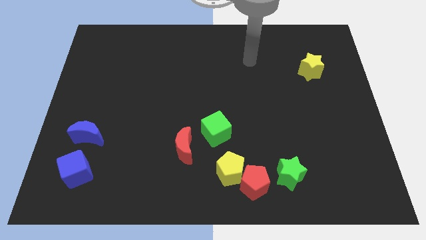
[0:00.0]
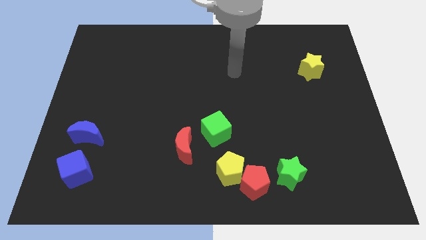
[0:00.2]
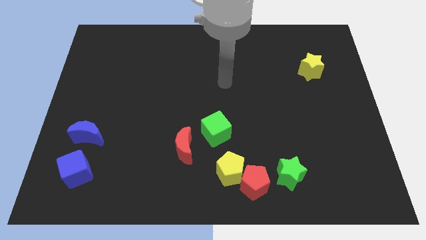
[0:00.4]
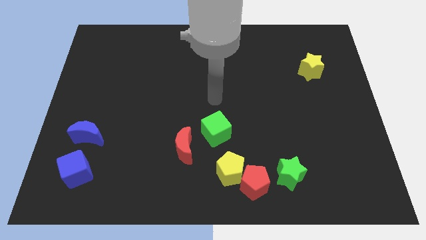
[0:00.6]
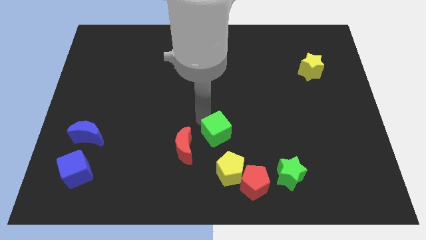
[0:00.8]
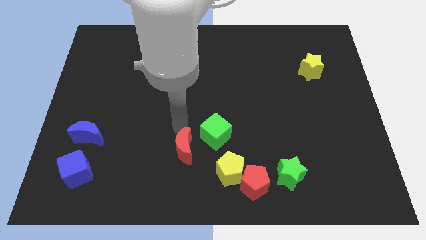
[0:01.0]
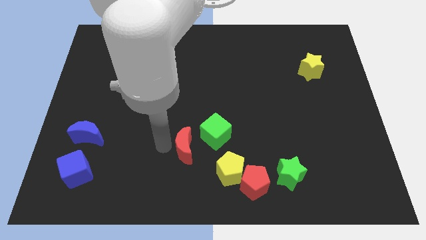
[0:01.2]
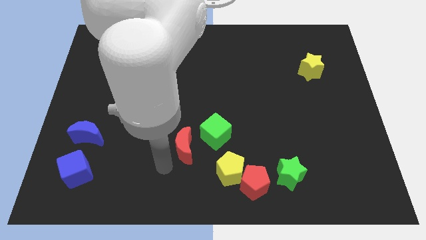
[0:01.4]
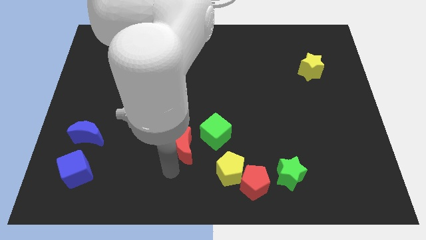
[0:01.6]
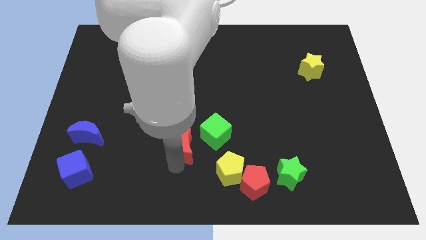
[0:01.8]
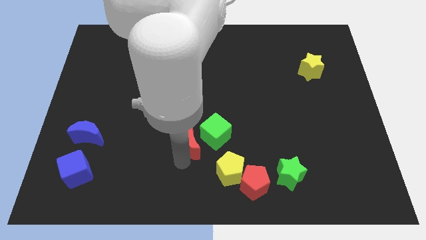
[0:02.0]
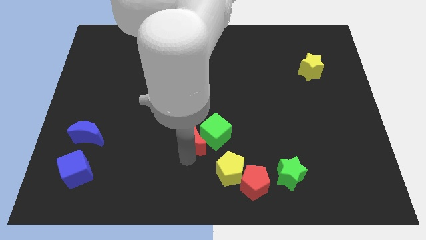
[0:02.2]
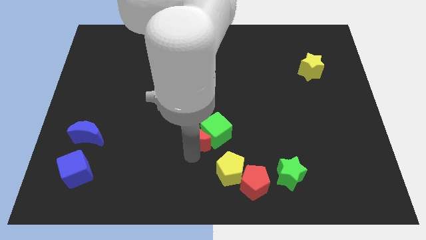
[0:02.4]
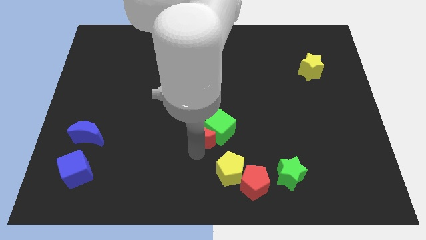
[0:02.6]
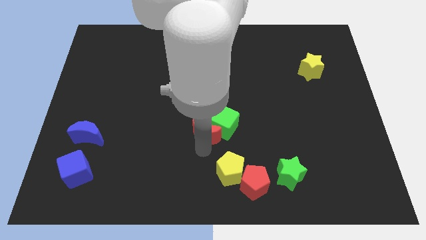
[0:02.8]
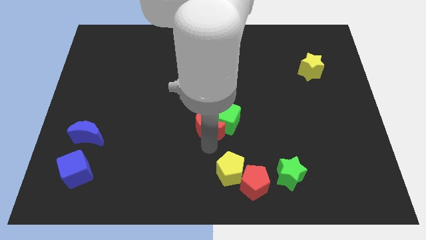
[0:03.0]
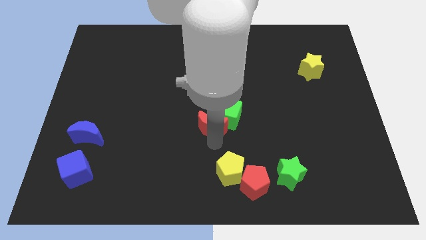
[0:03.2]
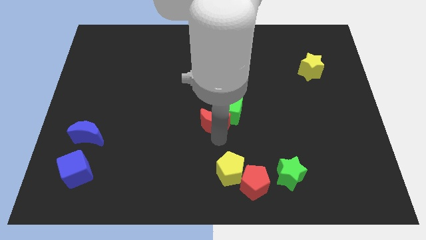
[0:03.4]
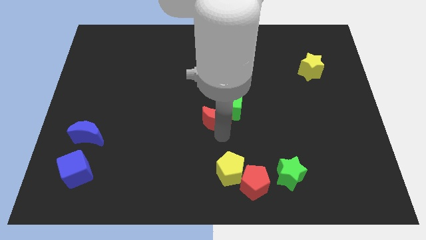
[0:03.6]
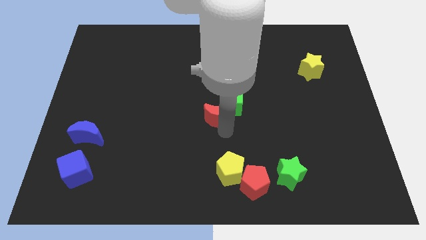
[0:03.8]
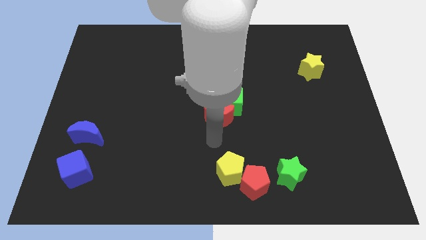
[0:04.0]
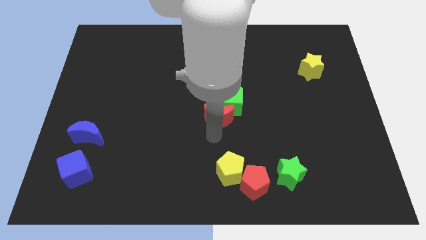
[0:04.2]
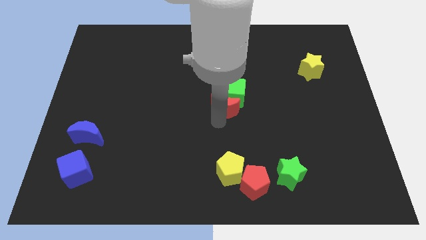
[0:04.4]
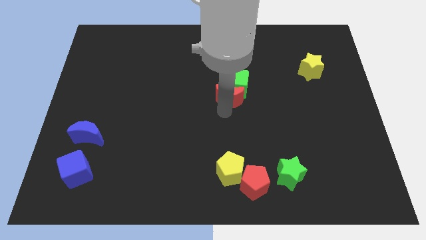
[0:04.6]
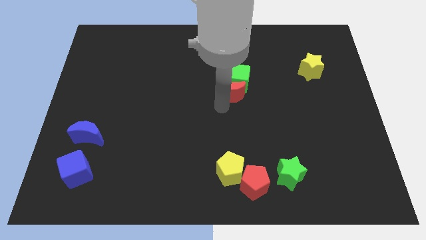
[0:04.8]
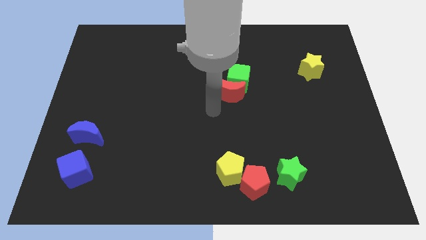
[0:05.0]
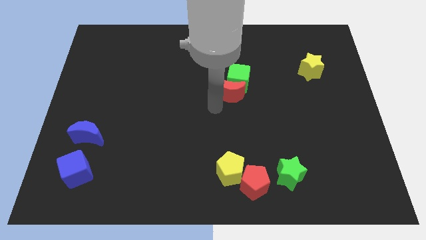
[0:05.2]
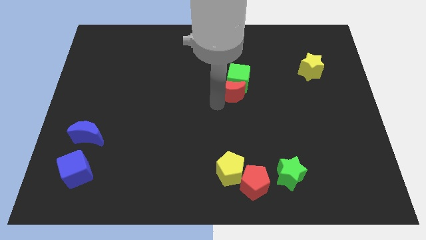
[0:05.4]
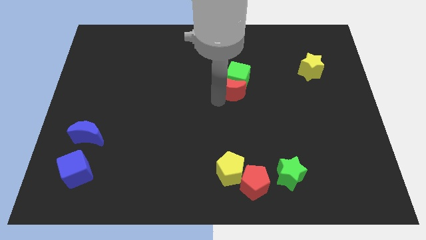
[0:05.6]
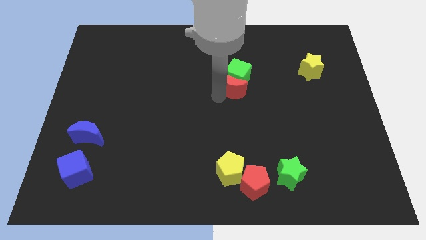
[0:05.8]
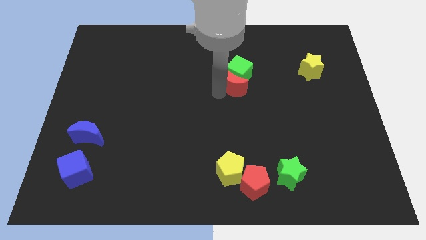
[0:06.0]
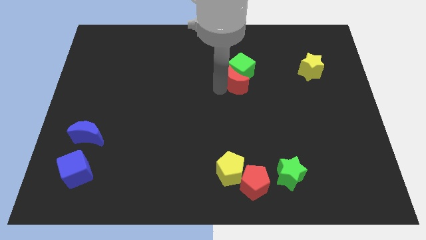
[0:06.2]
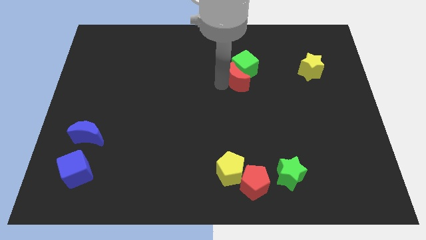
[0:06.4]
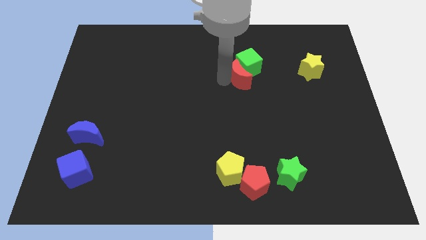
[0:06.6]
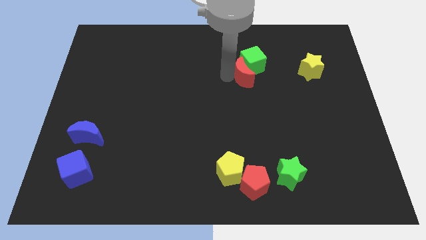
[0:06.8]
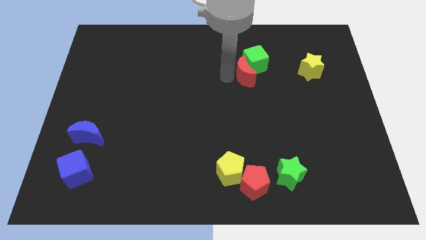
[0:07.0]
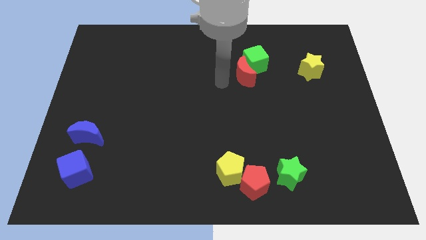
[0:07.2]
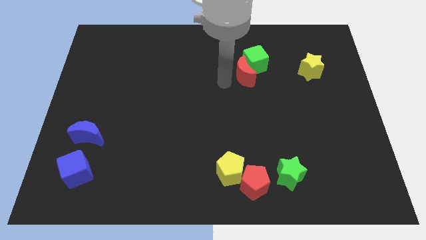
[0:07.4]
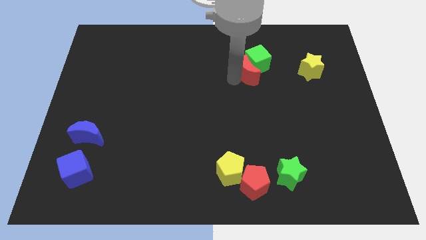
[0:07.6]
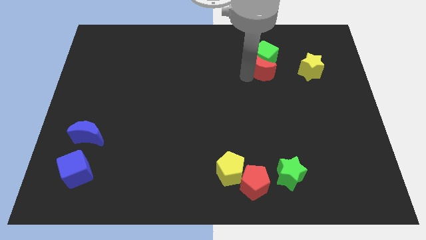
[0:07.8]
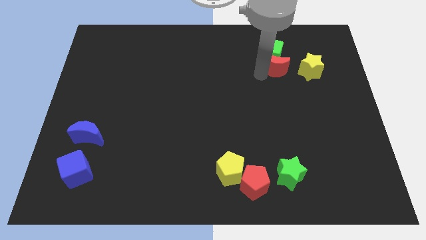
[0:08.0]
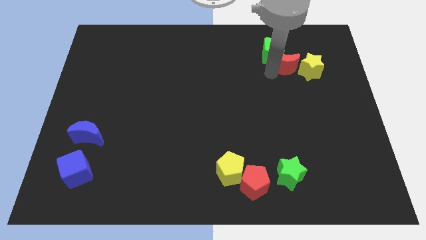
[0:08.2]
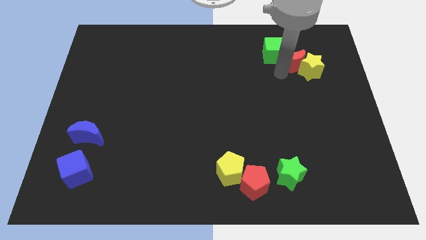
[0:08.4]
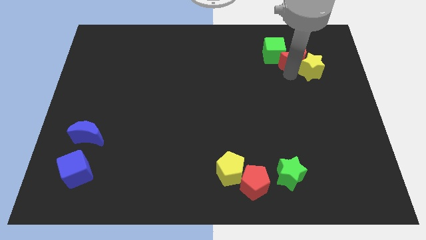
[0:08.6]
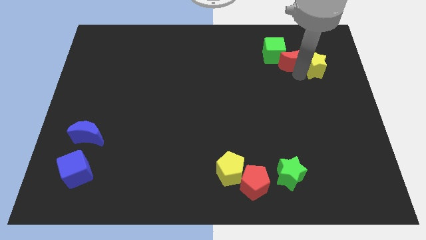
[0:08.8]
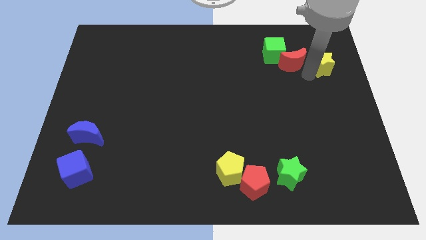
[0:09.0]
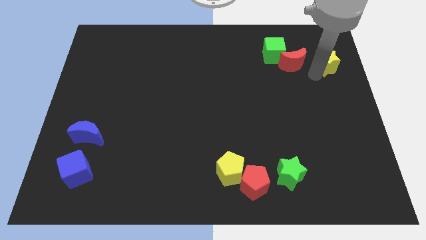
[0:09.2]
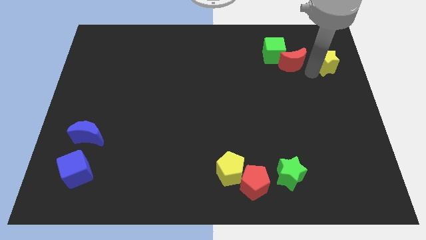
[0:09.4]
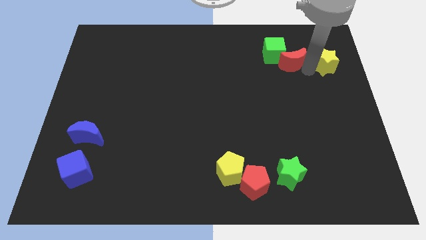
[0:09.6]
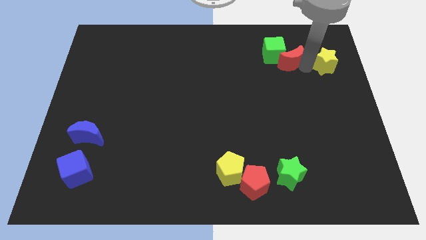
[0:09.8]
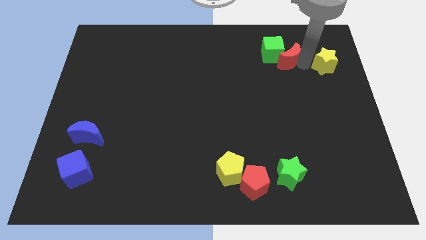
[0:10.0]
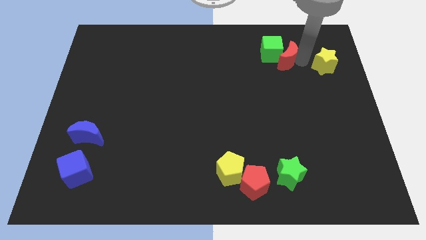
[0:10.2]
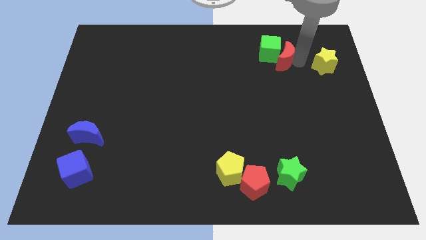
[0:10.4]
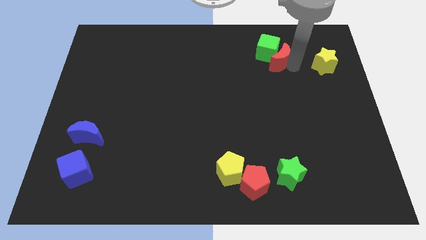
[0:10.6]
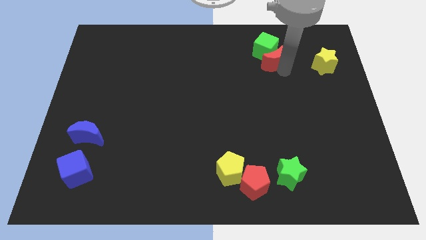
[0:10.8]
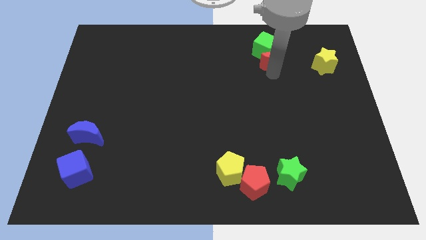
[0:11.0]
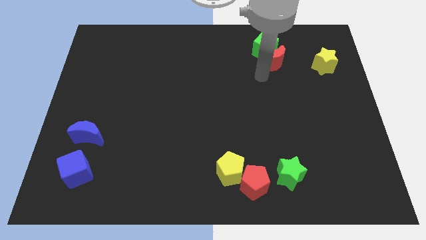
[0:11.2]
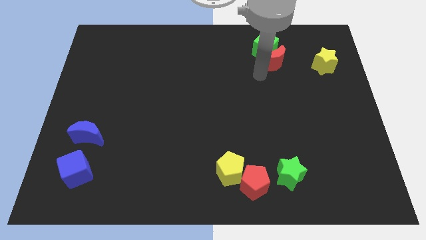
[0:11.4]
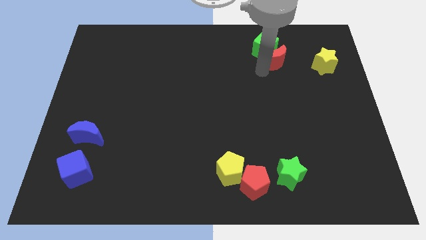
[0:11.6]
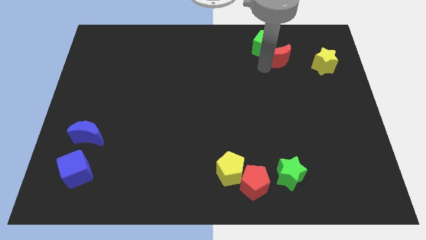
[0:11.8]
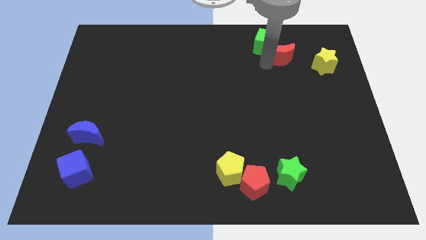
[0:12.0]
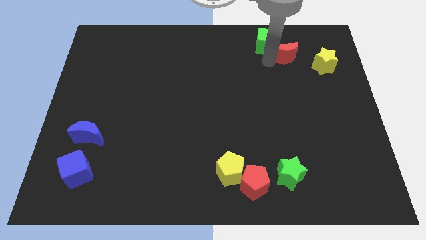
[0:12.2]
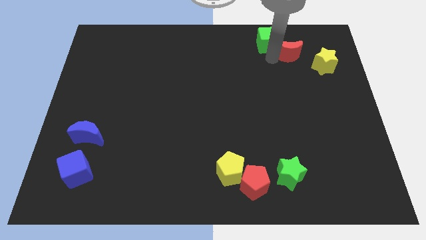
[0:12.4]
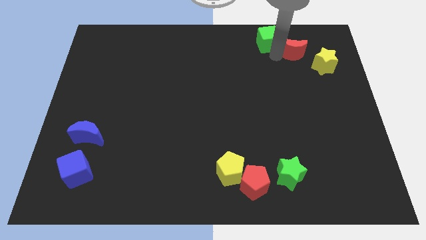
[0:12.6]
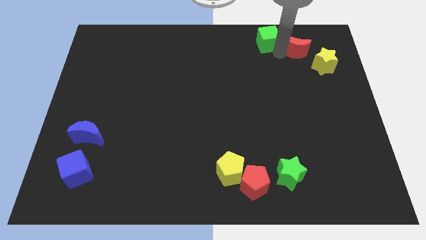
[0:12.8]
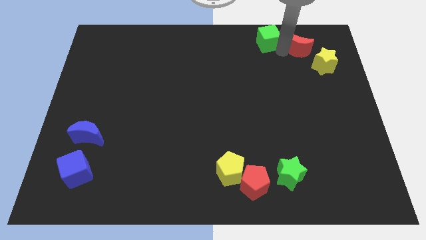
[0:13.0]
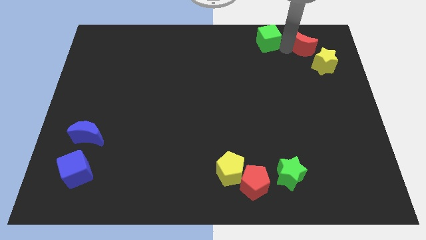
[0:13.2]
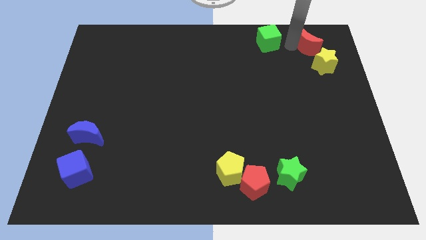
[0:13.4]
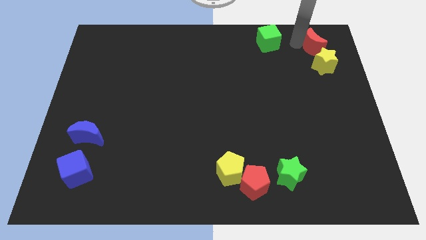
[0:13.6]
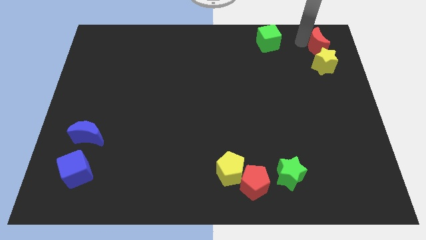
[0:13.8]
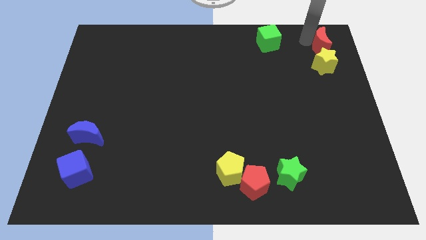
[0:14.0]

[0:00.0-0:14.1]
slide the red moon to the top right of the board
